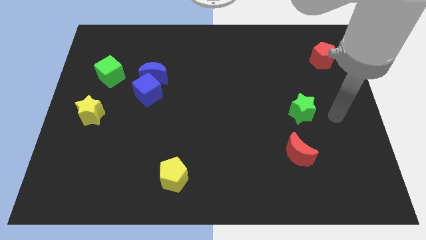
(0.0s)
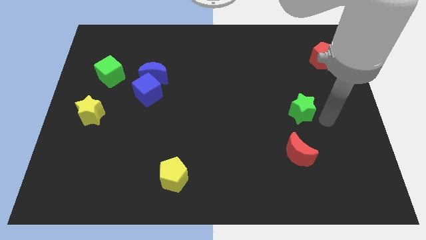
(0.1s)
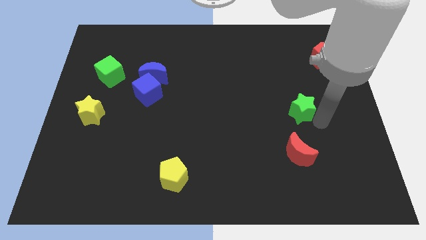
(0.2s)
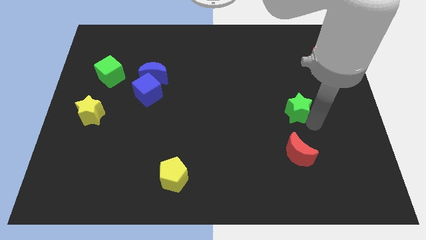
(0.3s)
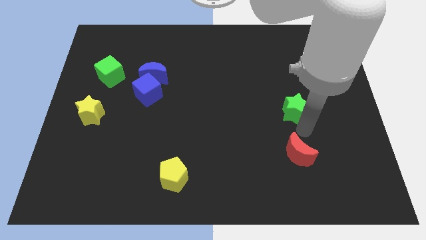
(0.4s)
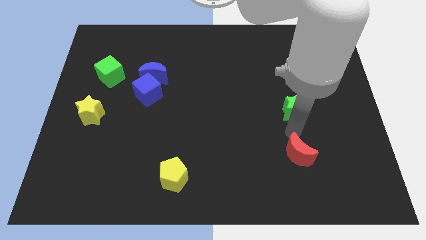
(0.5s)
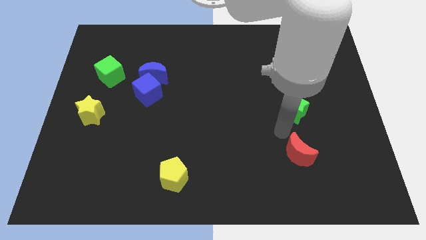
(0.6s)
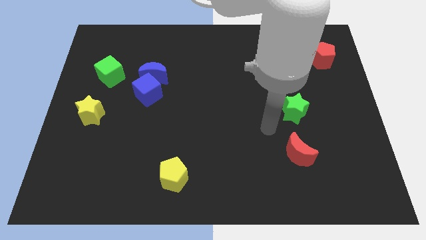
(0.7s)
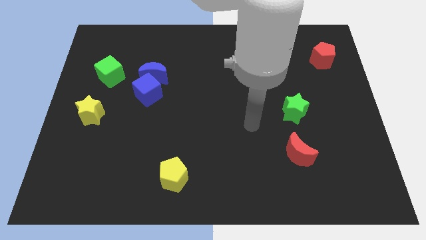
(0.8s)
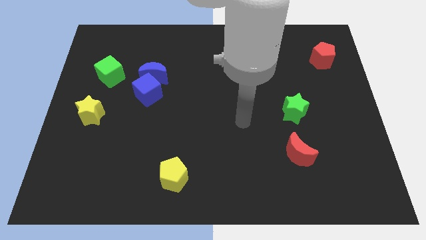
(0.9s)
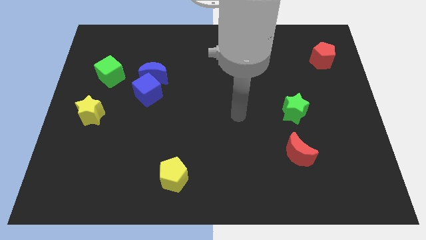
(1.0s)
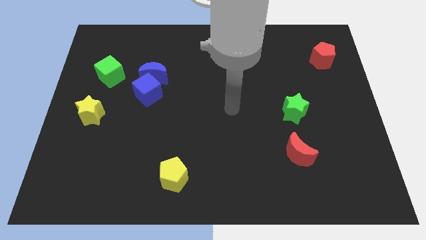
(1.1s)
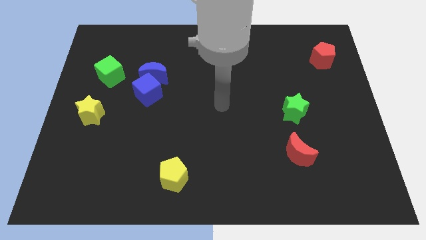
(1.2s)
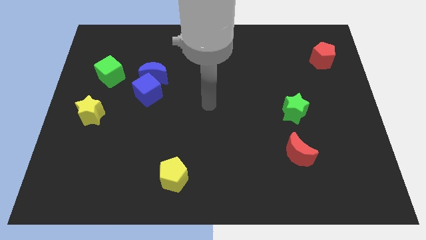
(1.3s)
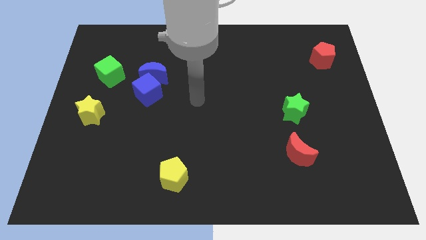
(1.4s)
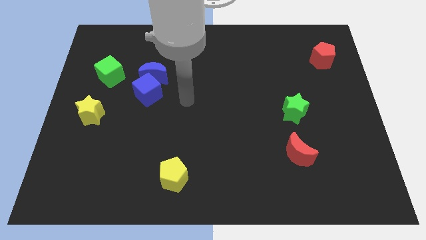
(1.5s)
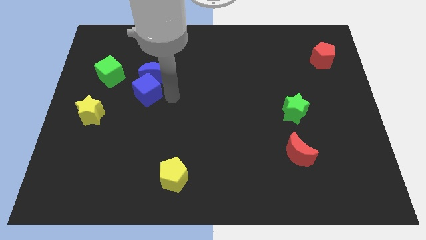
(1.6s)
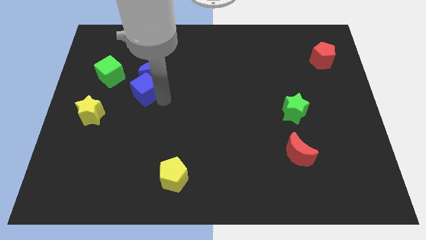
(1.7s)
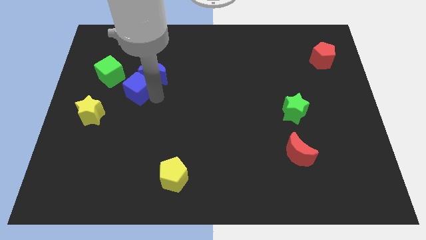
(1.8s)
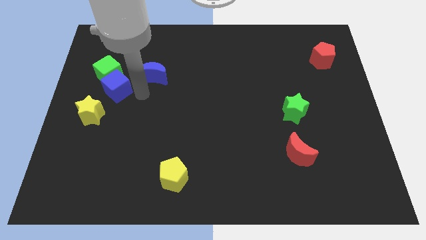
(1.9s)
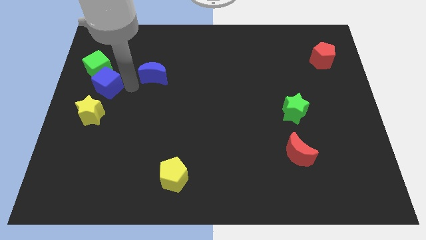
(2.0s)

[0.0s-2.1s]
pull the blue moon apart from the blue cube

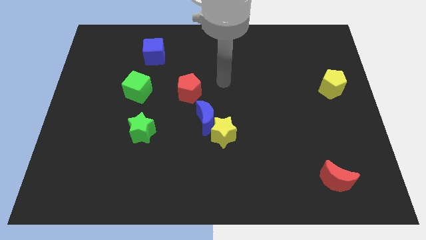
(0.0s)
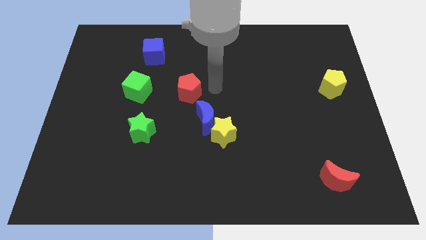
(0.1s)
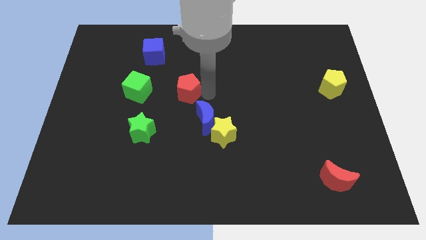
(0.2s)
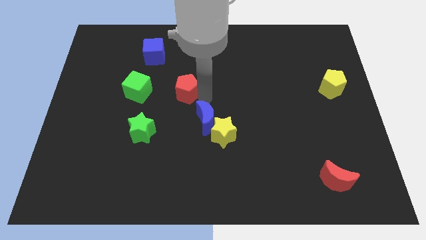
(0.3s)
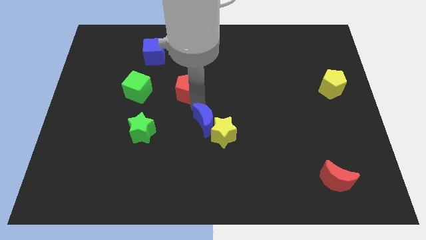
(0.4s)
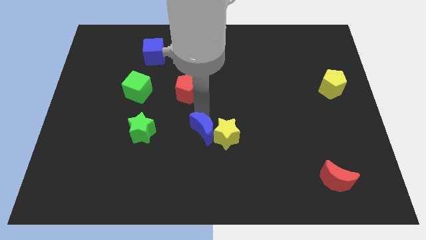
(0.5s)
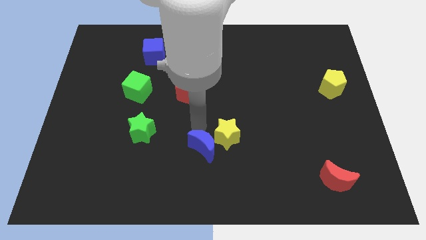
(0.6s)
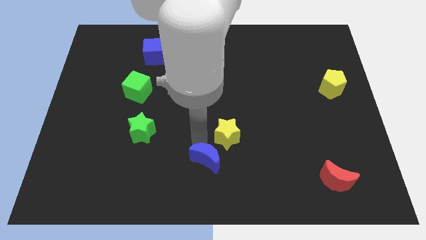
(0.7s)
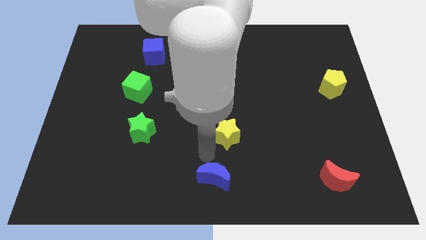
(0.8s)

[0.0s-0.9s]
pull the yellow star apart from the blue moon

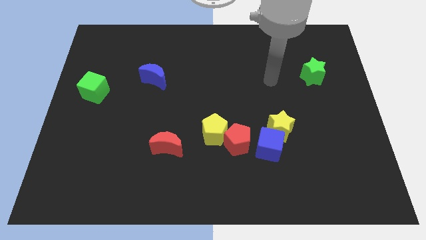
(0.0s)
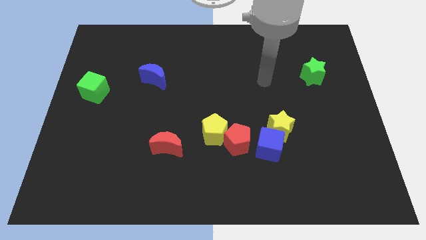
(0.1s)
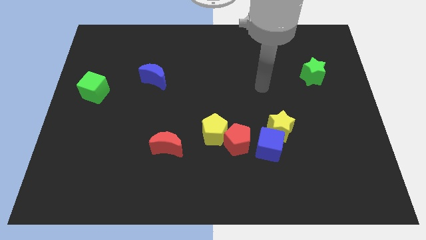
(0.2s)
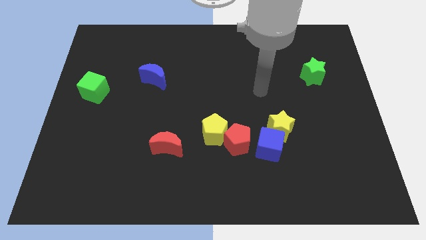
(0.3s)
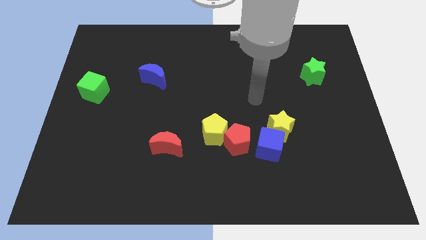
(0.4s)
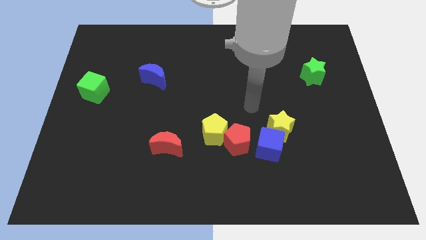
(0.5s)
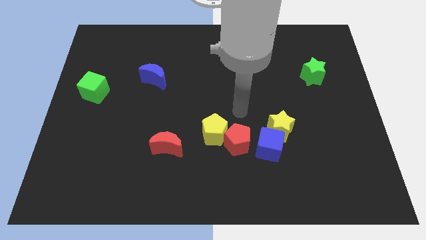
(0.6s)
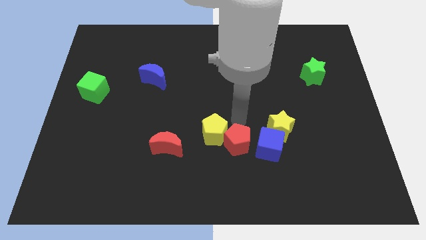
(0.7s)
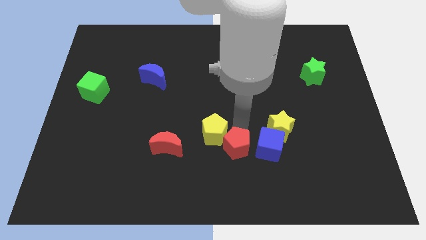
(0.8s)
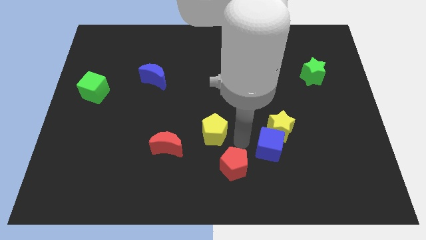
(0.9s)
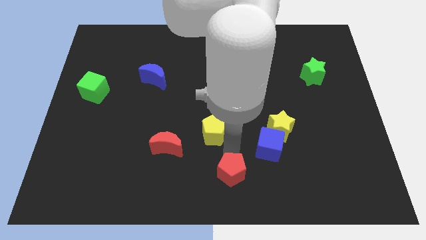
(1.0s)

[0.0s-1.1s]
move the yellow pentagon away from the red pentagon

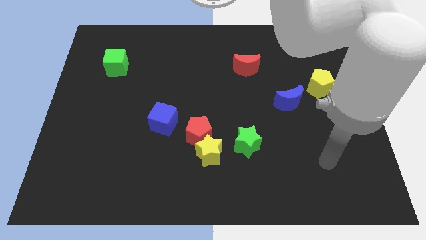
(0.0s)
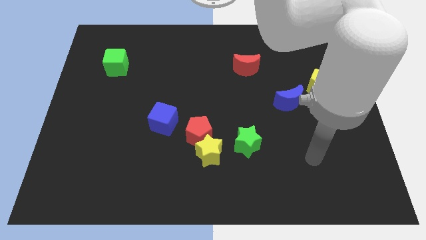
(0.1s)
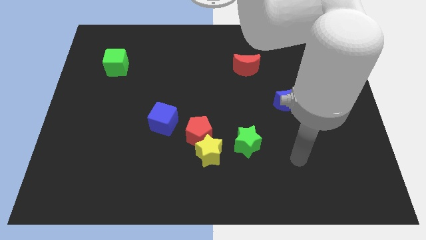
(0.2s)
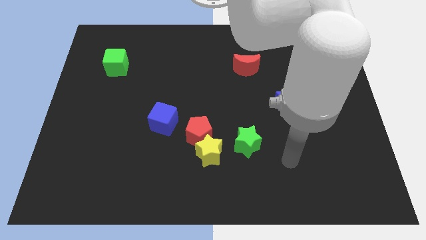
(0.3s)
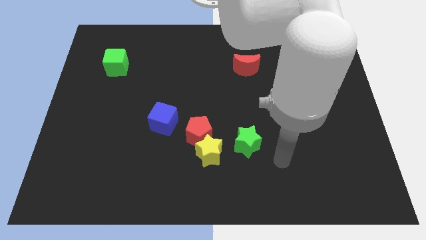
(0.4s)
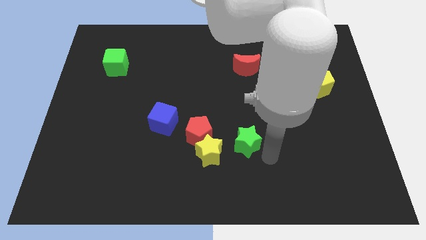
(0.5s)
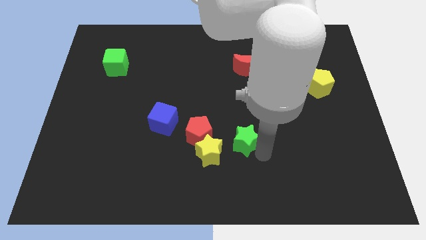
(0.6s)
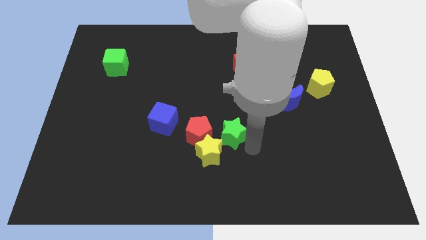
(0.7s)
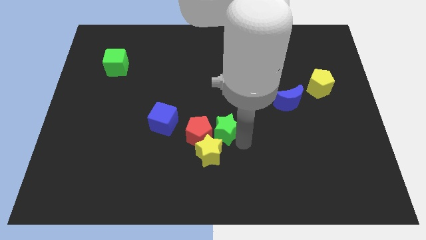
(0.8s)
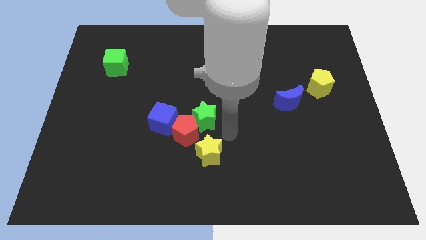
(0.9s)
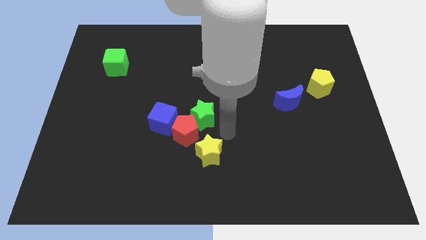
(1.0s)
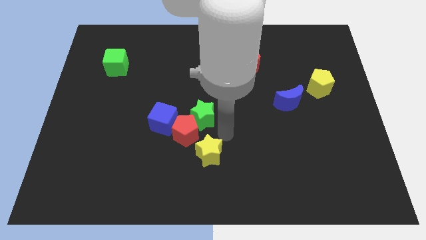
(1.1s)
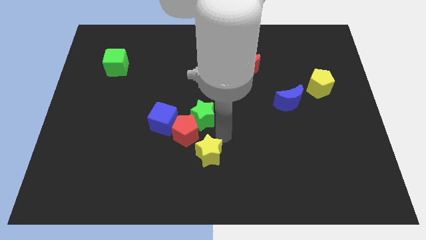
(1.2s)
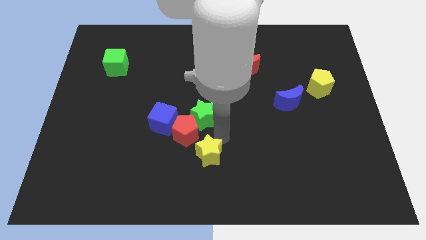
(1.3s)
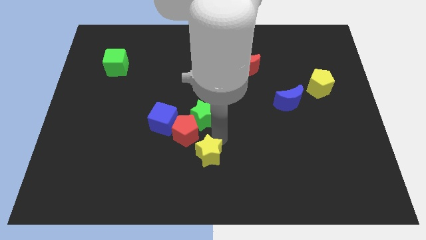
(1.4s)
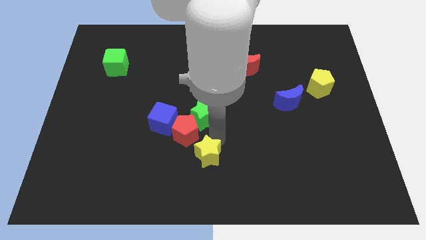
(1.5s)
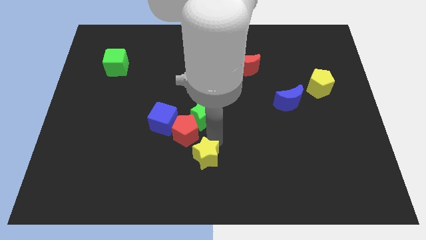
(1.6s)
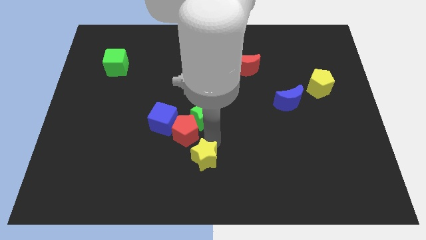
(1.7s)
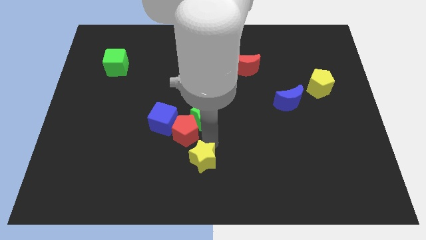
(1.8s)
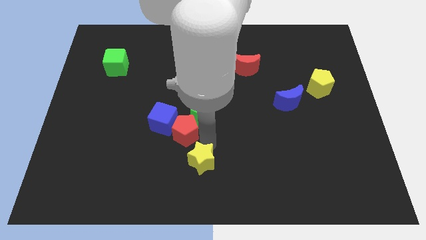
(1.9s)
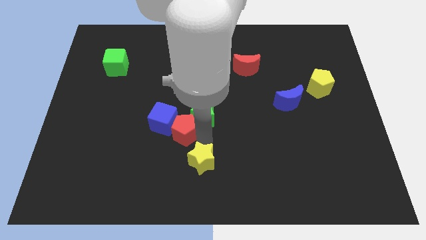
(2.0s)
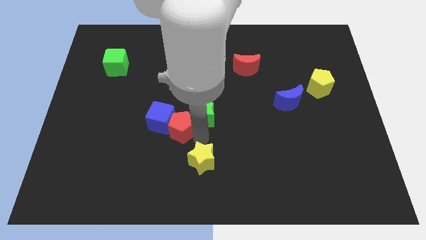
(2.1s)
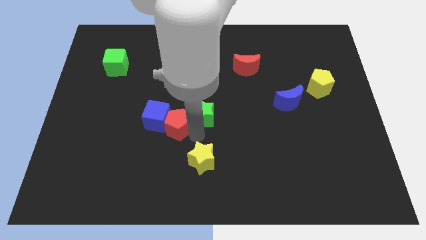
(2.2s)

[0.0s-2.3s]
pull the yellow star apart from the red pentagon and green star

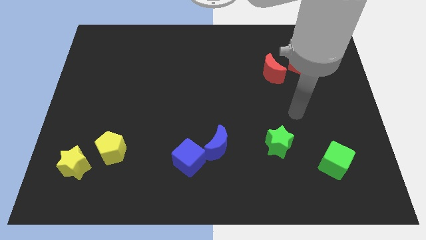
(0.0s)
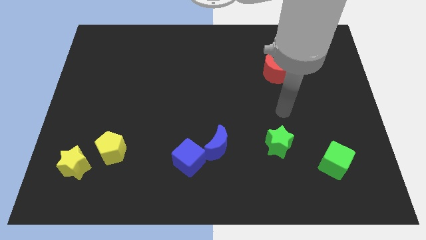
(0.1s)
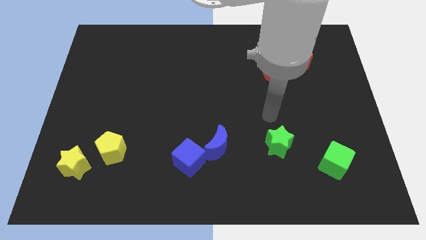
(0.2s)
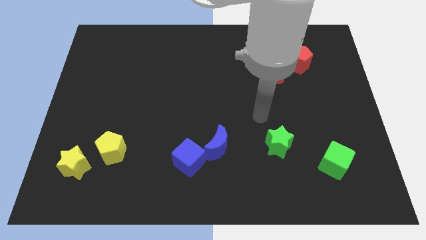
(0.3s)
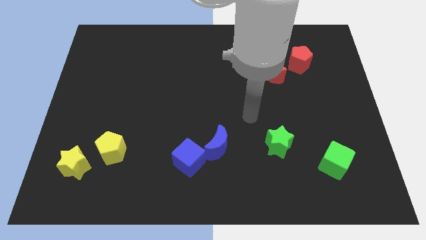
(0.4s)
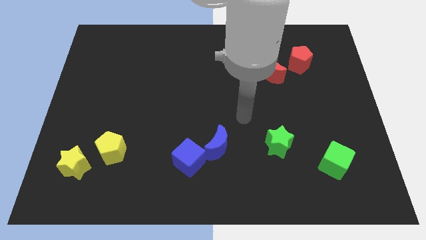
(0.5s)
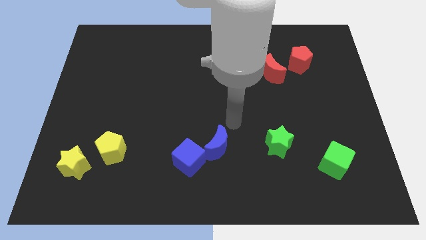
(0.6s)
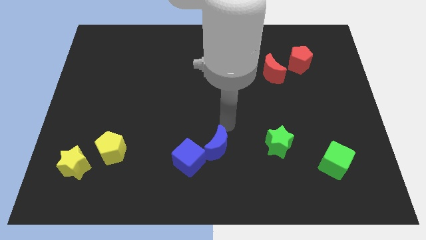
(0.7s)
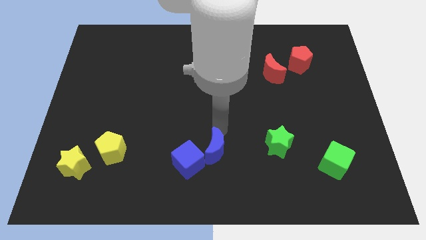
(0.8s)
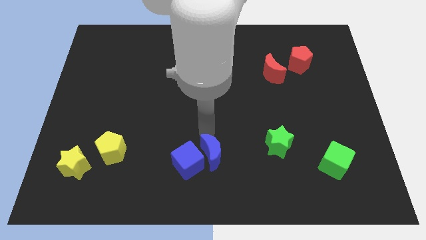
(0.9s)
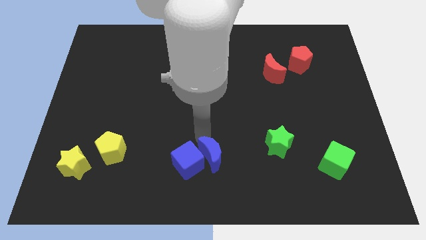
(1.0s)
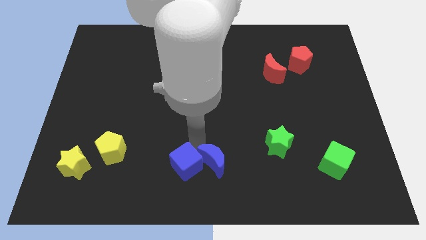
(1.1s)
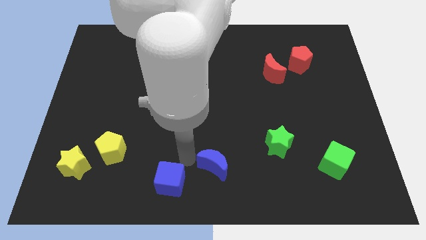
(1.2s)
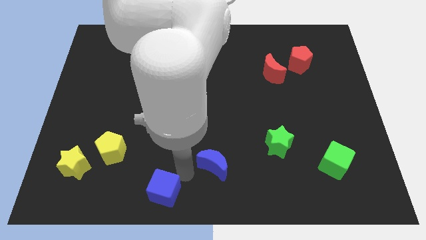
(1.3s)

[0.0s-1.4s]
move the blue moon away from the blue cube

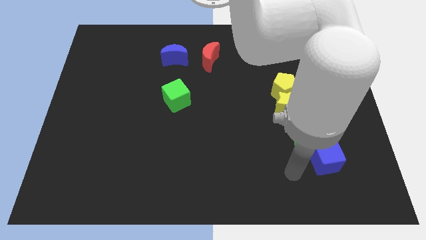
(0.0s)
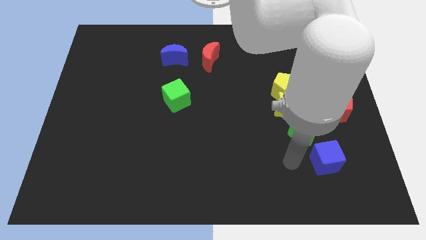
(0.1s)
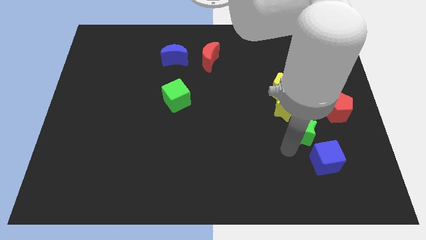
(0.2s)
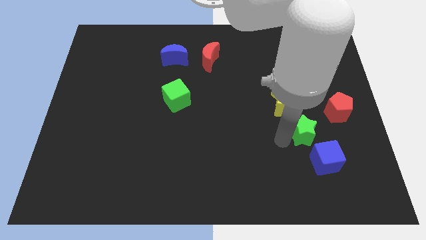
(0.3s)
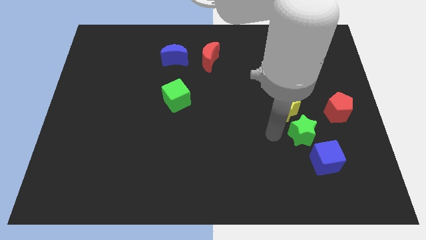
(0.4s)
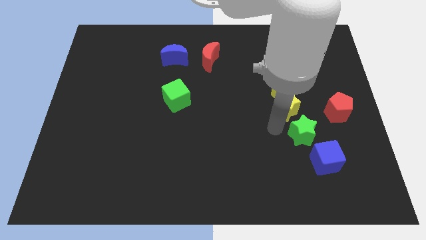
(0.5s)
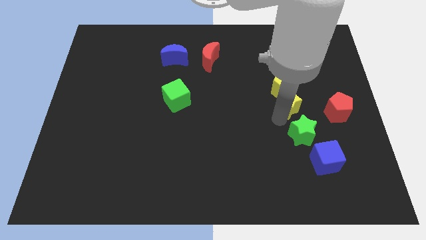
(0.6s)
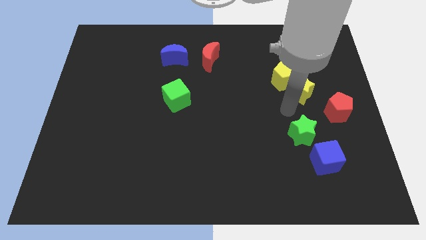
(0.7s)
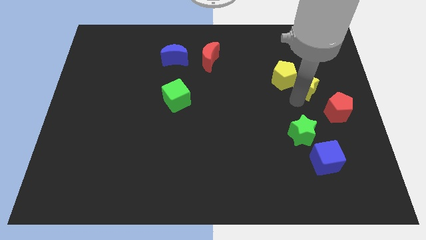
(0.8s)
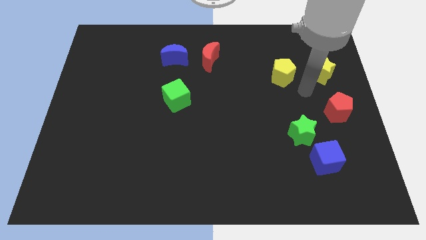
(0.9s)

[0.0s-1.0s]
pull the yellow pentagon apart from the yellow star

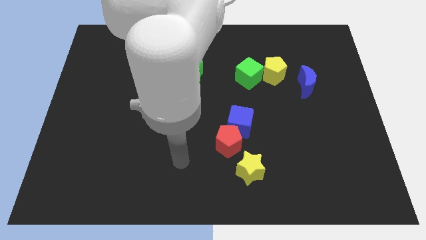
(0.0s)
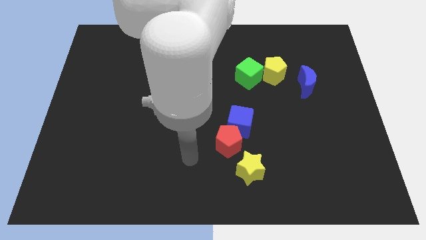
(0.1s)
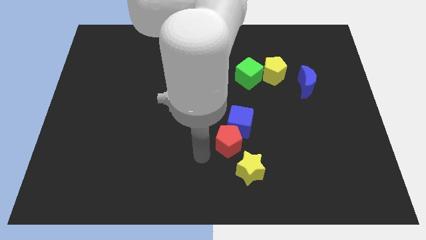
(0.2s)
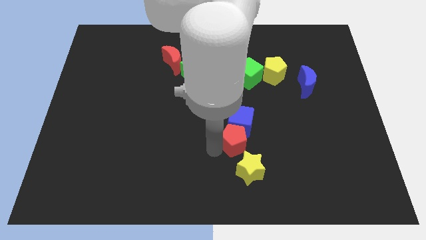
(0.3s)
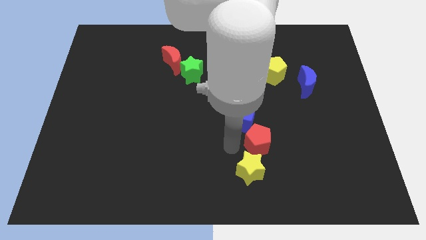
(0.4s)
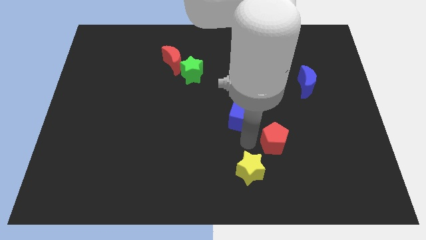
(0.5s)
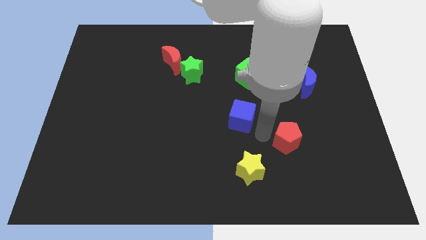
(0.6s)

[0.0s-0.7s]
move the blue cube away from the red pentagon

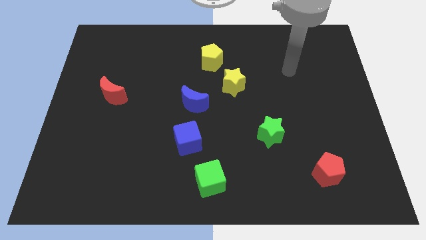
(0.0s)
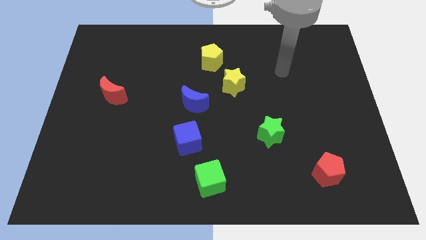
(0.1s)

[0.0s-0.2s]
pull the yellow star apart from the yellow pentagon
